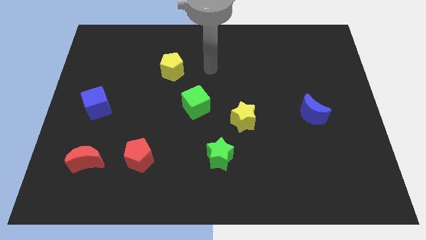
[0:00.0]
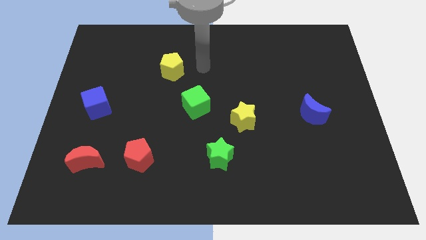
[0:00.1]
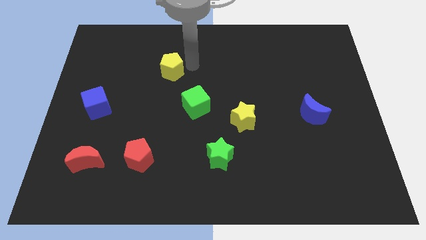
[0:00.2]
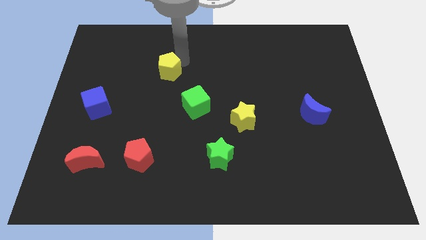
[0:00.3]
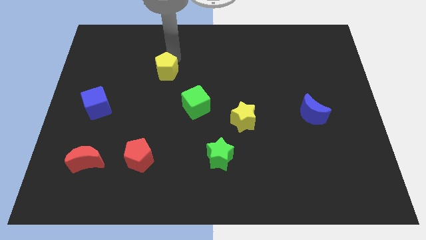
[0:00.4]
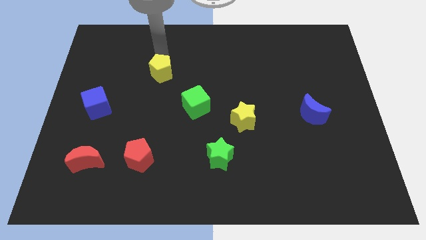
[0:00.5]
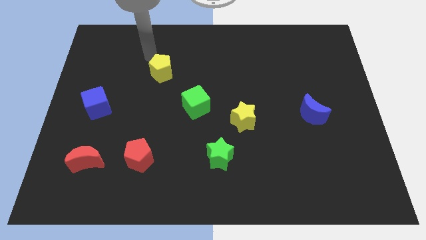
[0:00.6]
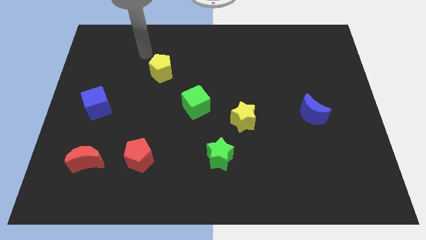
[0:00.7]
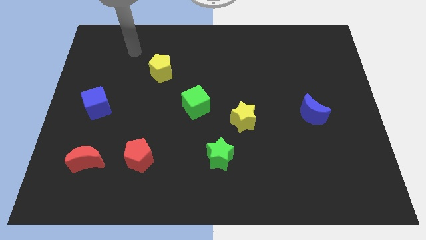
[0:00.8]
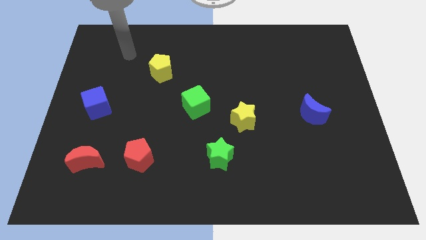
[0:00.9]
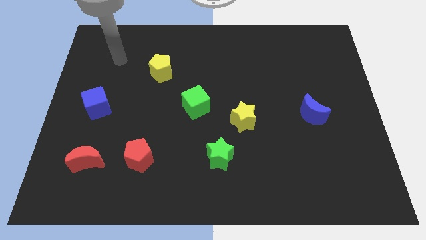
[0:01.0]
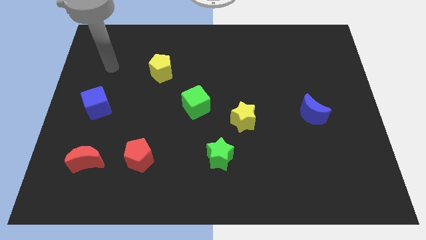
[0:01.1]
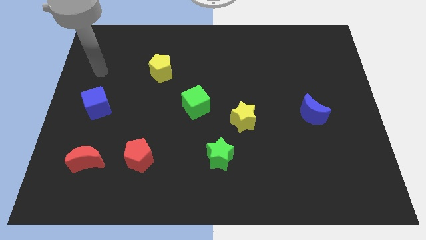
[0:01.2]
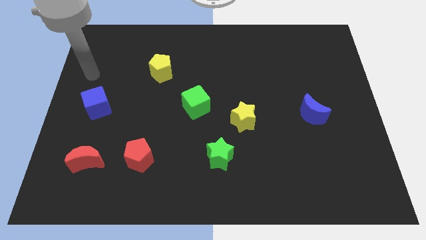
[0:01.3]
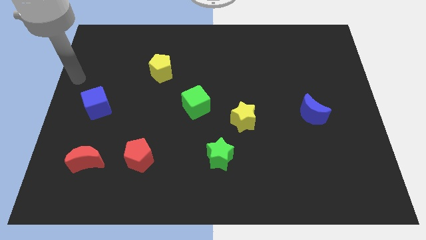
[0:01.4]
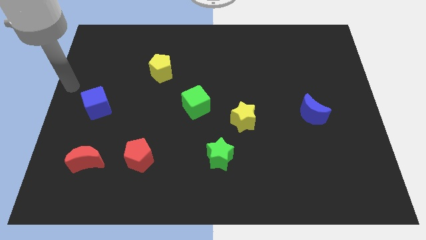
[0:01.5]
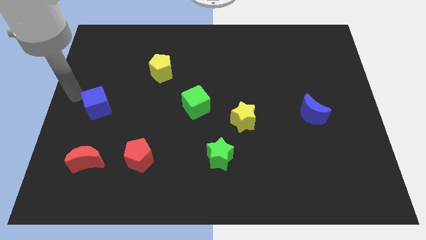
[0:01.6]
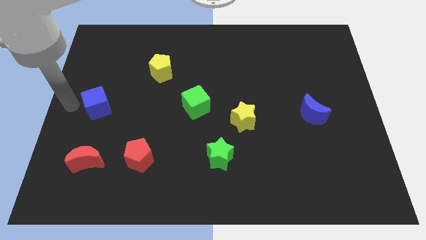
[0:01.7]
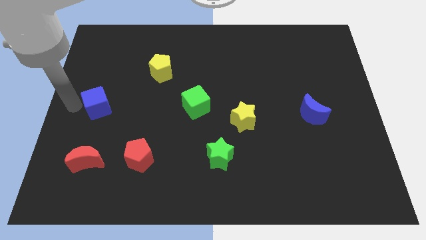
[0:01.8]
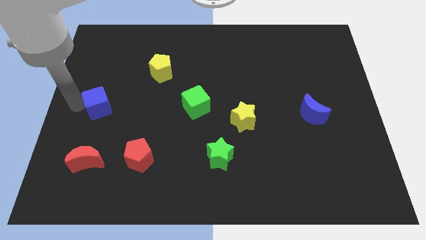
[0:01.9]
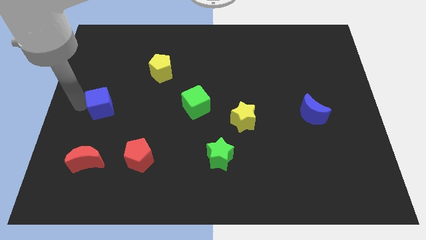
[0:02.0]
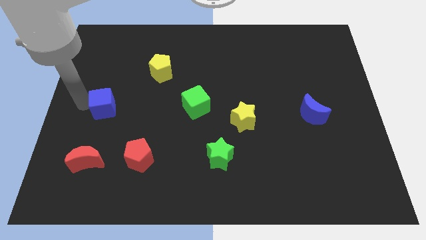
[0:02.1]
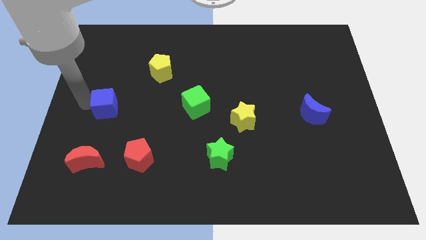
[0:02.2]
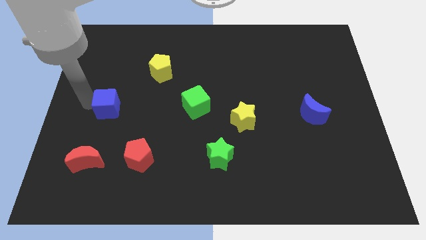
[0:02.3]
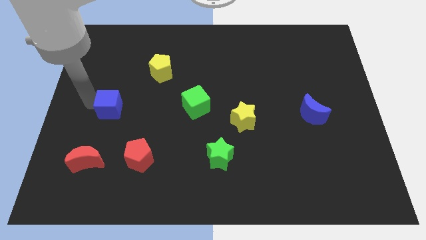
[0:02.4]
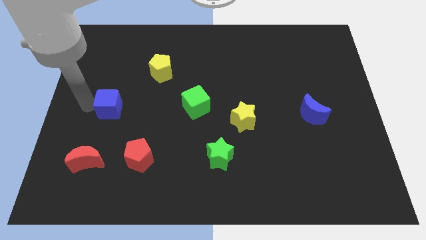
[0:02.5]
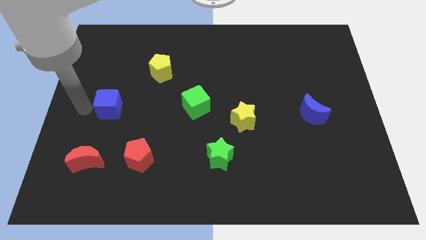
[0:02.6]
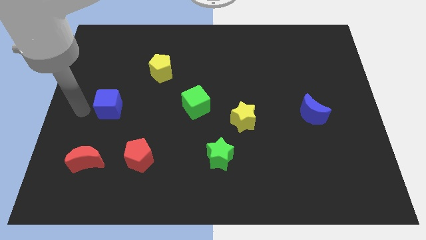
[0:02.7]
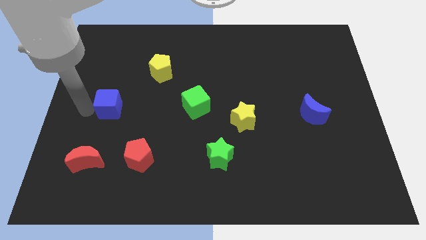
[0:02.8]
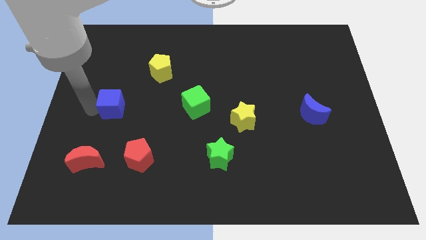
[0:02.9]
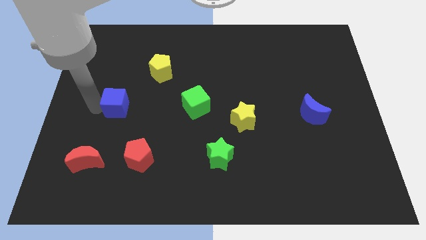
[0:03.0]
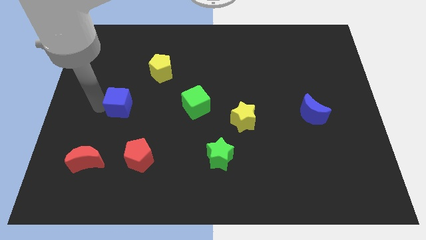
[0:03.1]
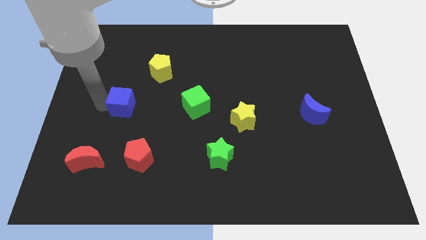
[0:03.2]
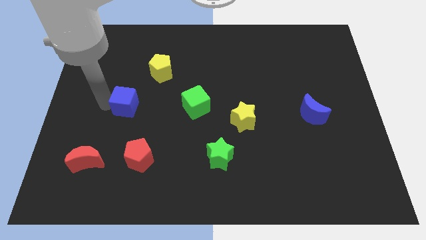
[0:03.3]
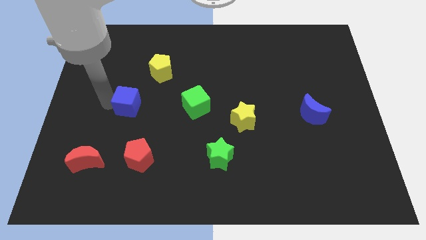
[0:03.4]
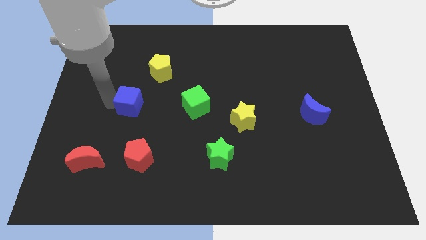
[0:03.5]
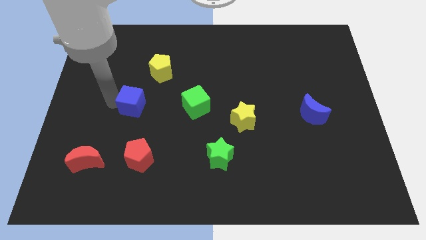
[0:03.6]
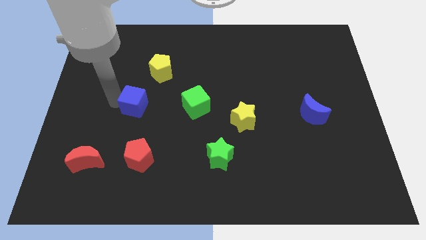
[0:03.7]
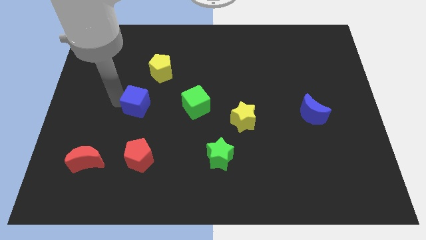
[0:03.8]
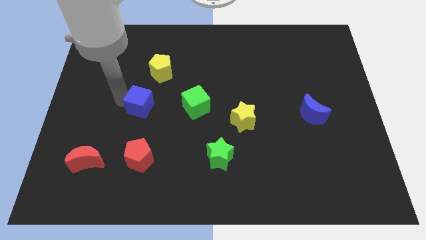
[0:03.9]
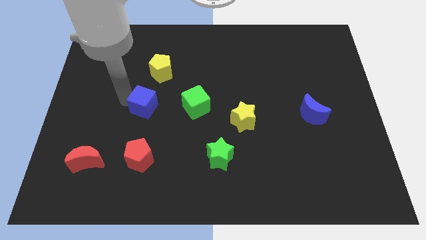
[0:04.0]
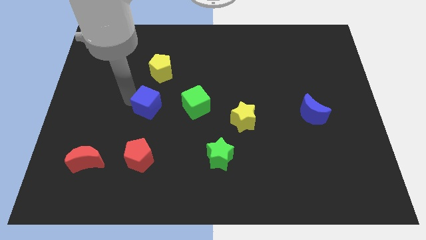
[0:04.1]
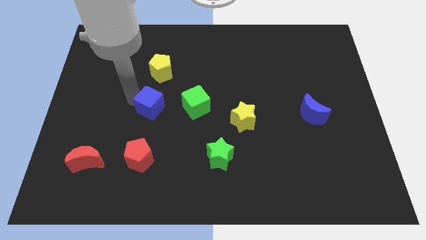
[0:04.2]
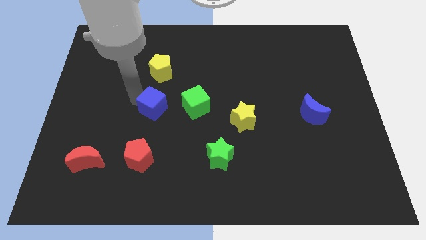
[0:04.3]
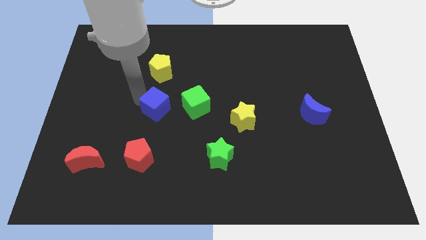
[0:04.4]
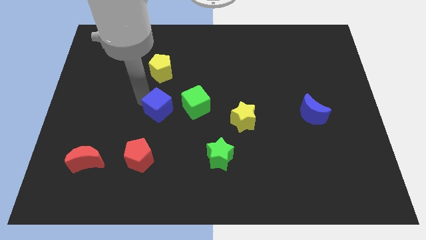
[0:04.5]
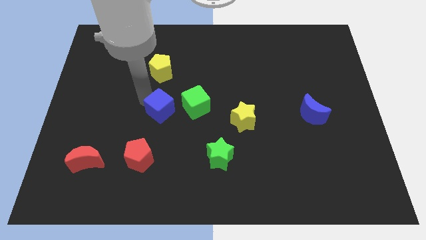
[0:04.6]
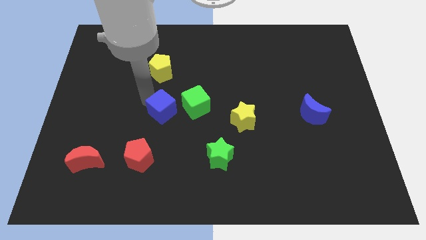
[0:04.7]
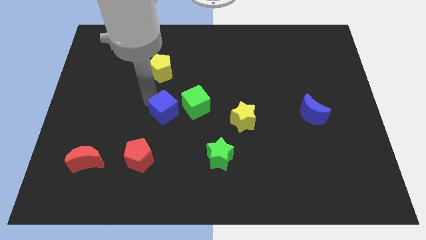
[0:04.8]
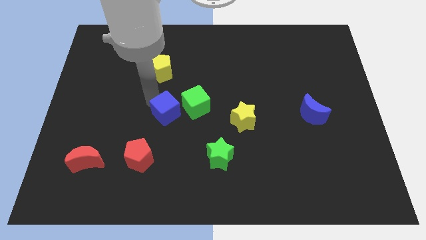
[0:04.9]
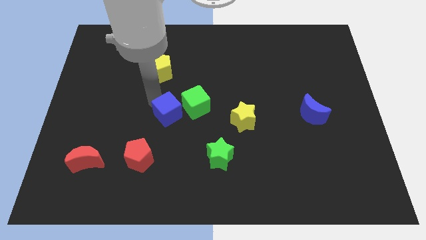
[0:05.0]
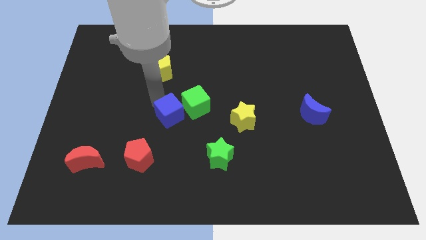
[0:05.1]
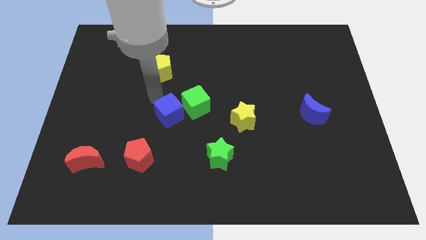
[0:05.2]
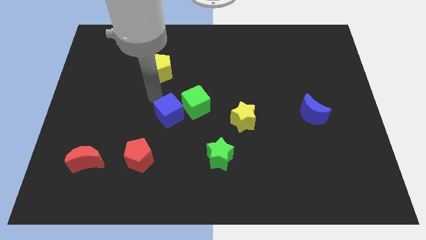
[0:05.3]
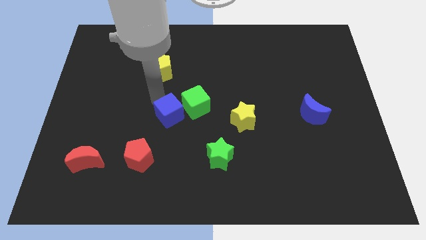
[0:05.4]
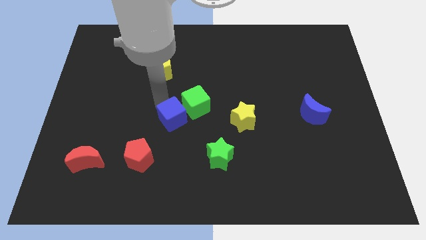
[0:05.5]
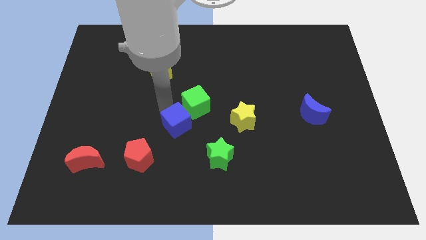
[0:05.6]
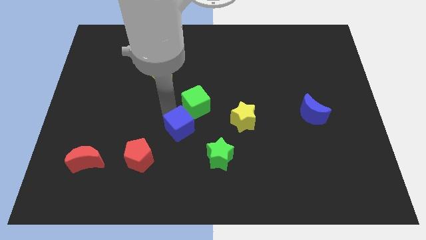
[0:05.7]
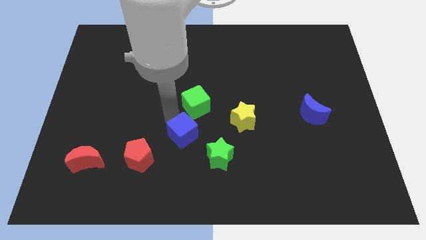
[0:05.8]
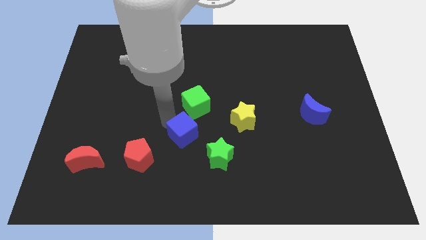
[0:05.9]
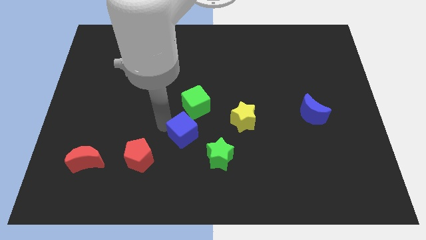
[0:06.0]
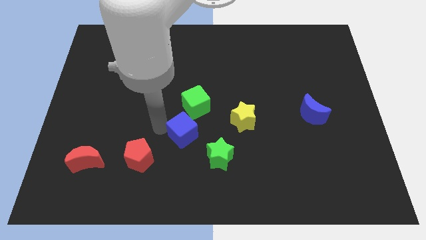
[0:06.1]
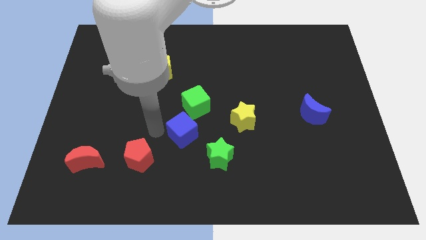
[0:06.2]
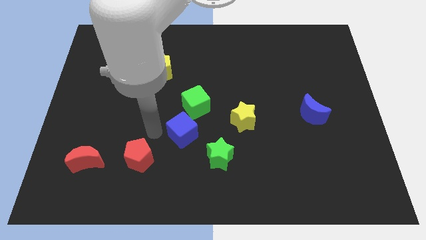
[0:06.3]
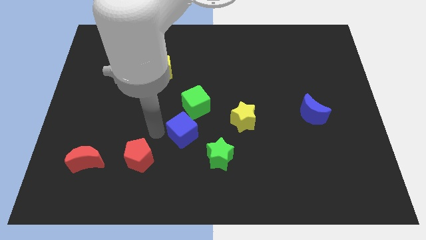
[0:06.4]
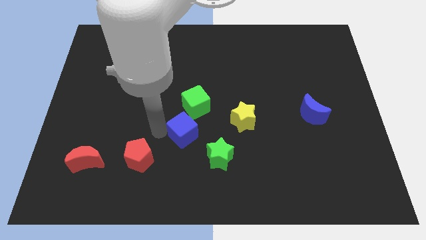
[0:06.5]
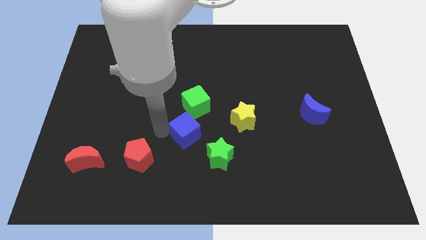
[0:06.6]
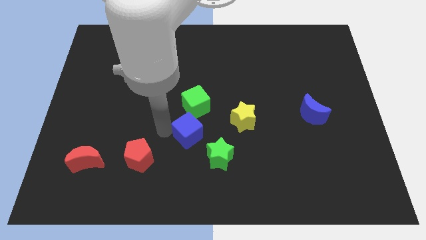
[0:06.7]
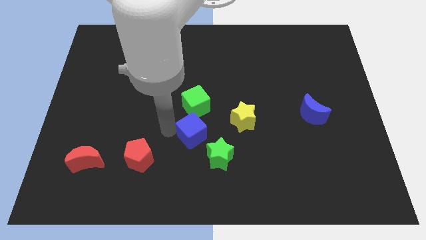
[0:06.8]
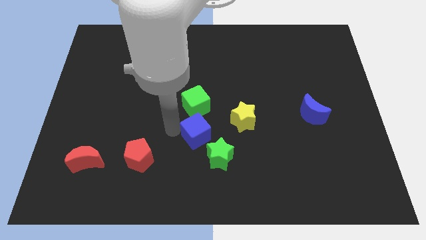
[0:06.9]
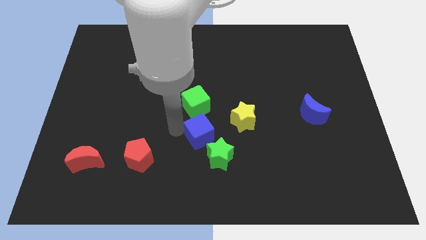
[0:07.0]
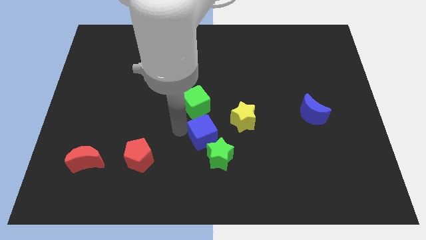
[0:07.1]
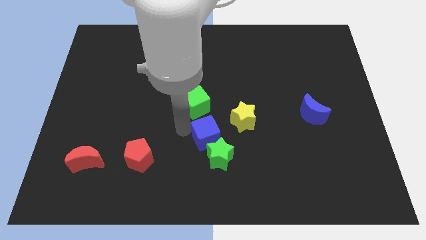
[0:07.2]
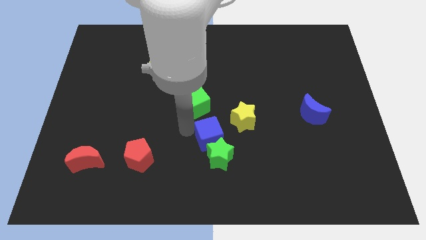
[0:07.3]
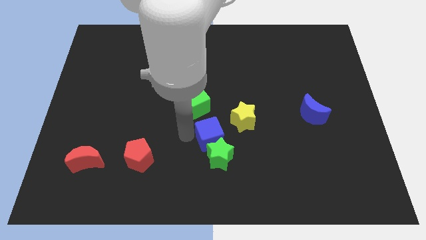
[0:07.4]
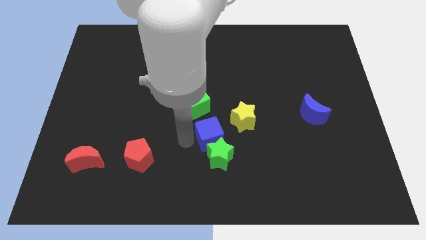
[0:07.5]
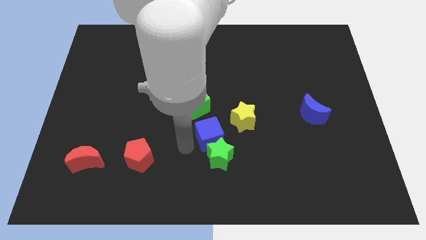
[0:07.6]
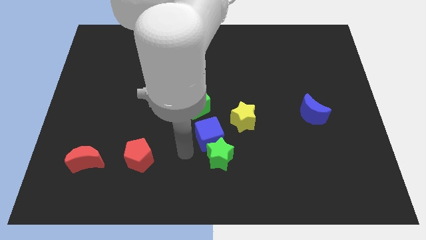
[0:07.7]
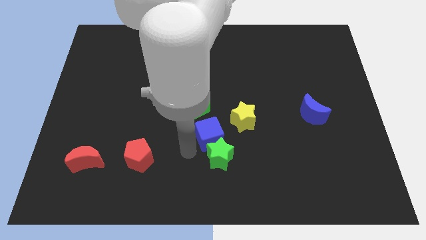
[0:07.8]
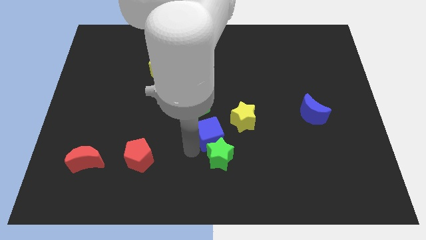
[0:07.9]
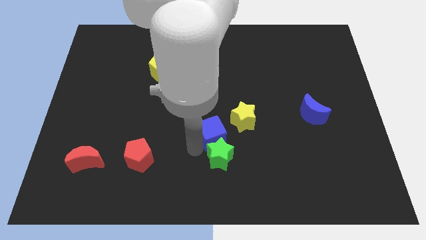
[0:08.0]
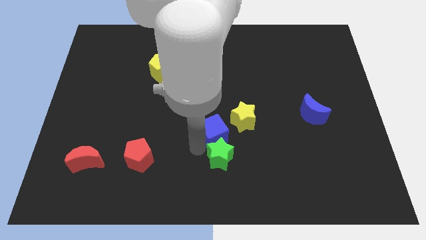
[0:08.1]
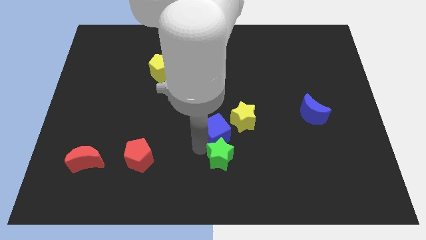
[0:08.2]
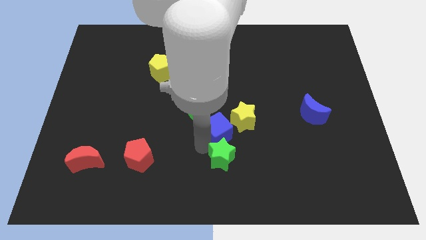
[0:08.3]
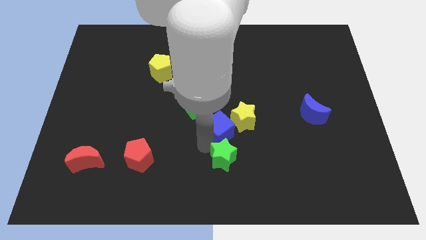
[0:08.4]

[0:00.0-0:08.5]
move the blue cube close to the yellow star
